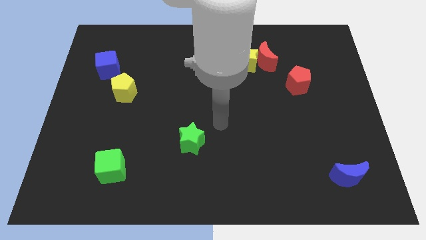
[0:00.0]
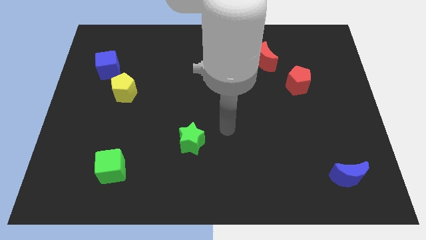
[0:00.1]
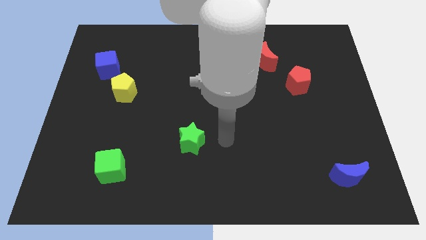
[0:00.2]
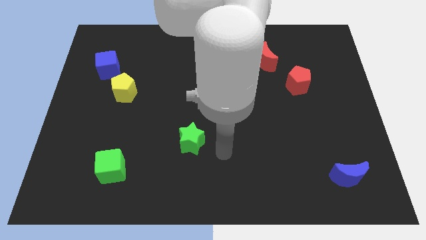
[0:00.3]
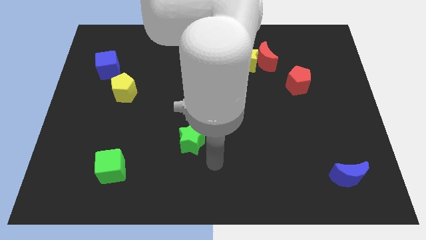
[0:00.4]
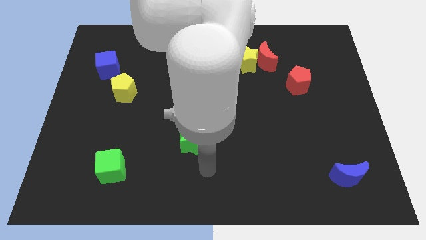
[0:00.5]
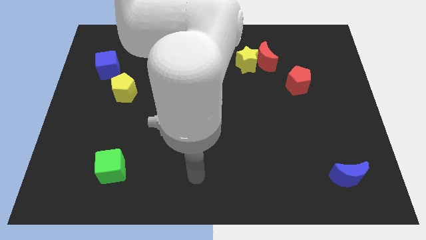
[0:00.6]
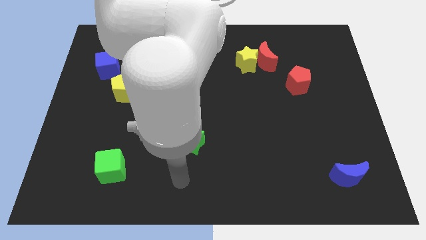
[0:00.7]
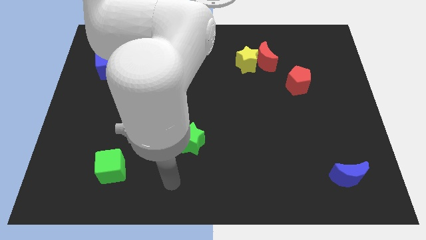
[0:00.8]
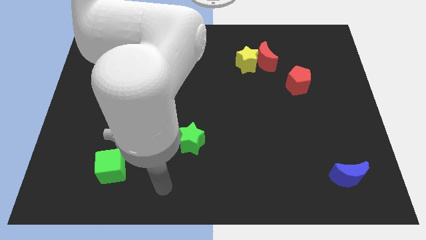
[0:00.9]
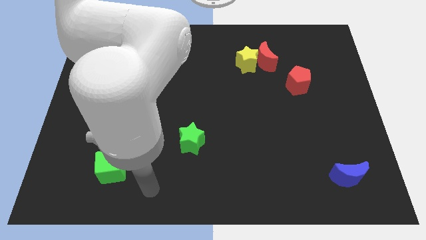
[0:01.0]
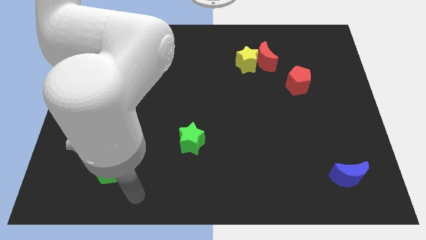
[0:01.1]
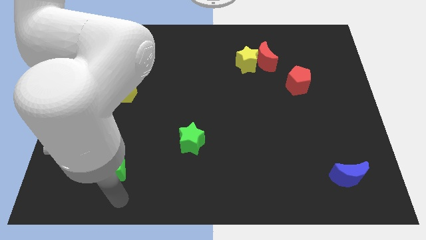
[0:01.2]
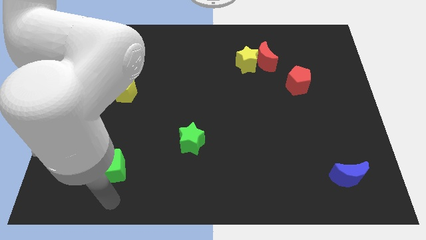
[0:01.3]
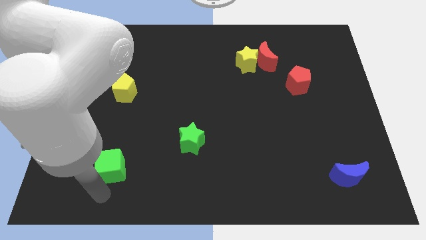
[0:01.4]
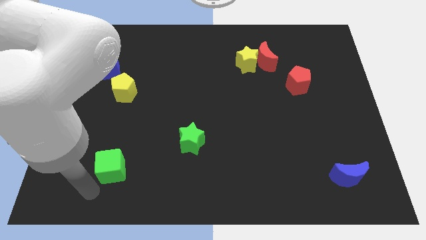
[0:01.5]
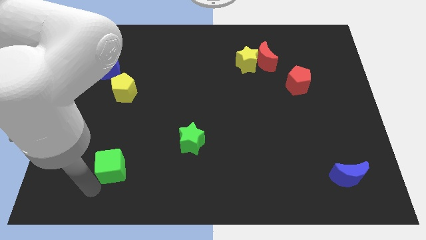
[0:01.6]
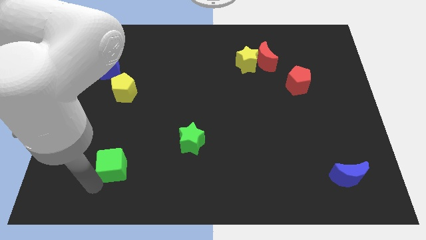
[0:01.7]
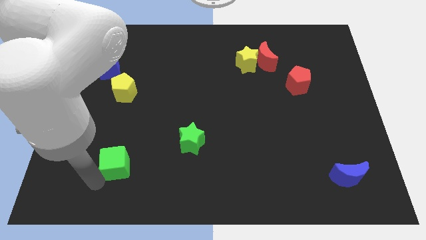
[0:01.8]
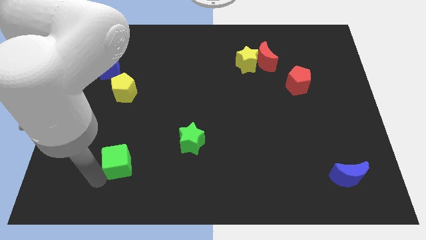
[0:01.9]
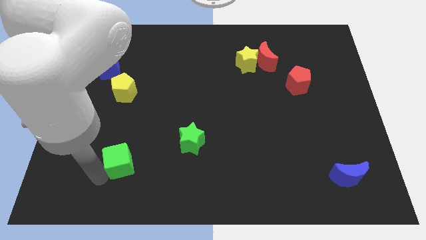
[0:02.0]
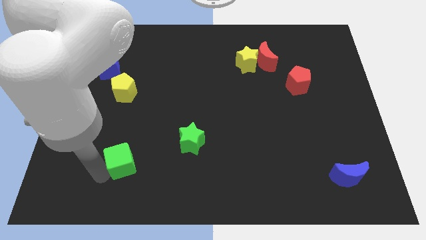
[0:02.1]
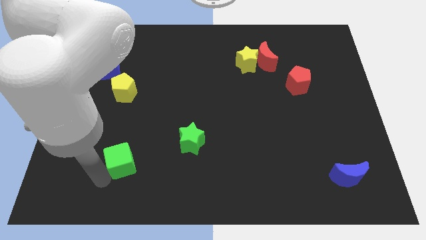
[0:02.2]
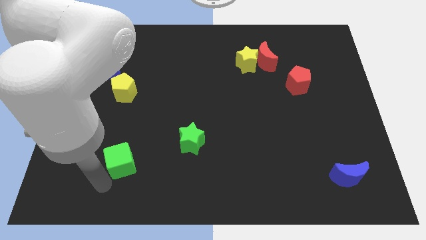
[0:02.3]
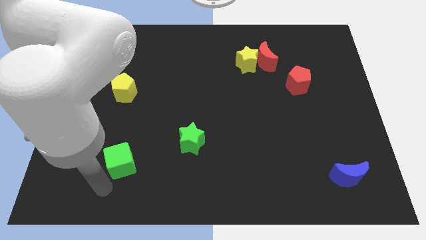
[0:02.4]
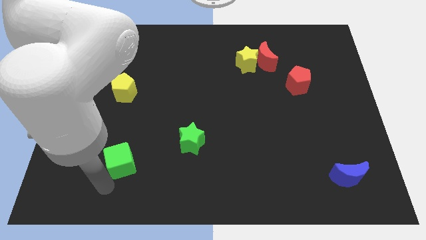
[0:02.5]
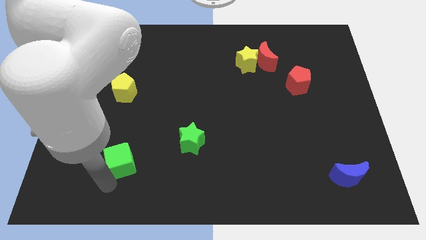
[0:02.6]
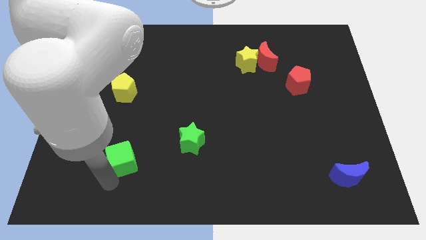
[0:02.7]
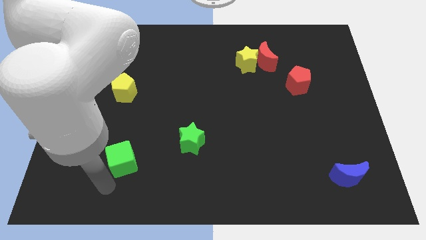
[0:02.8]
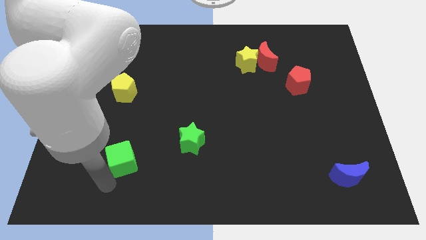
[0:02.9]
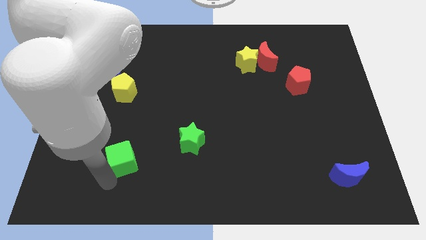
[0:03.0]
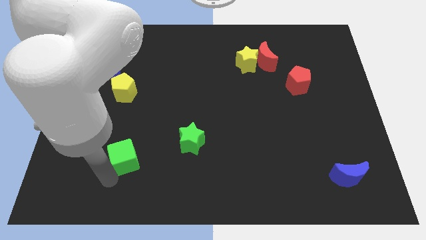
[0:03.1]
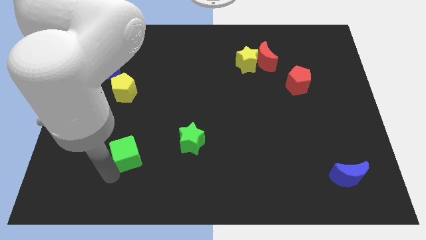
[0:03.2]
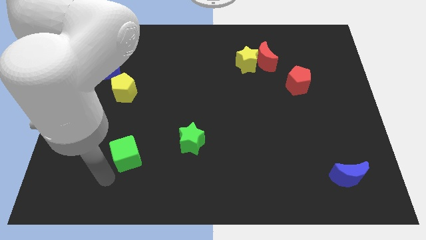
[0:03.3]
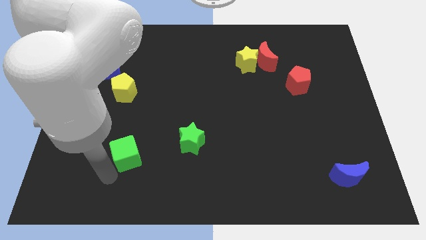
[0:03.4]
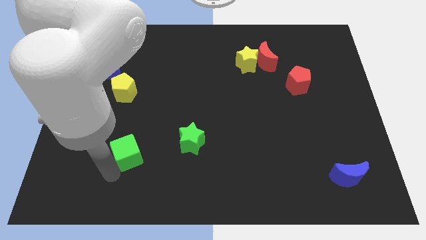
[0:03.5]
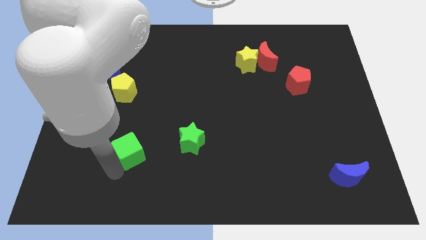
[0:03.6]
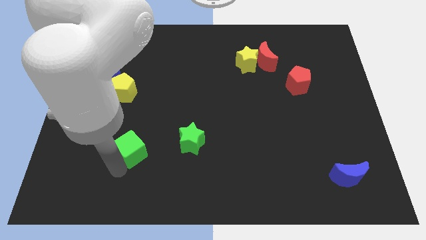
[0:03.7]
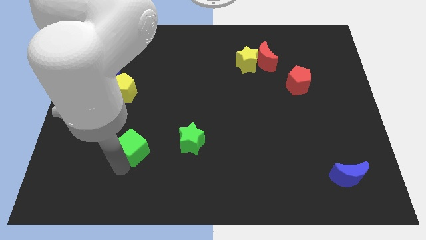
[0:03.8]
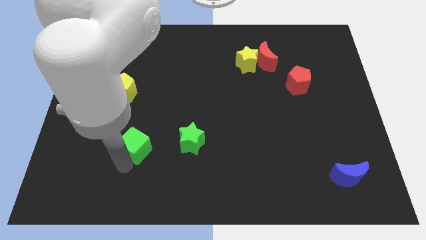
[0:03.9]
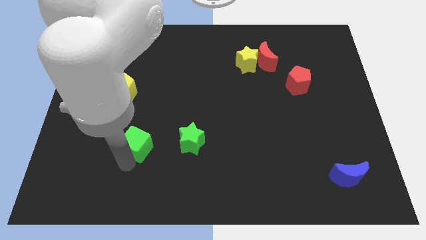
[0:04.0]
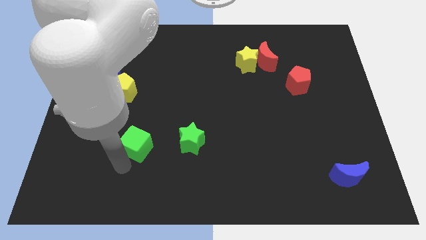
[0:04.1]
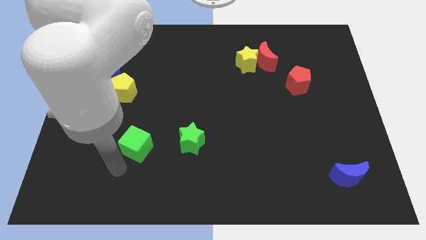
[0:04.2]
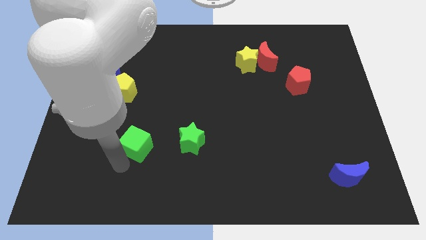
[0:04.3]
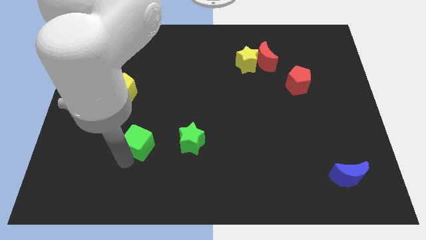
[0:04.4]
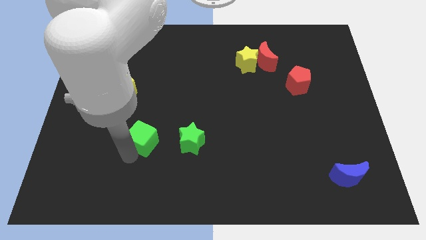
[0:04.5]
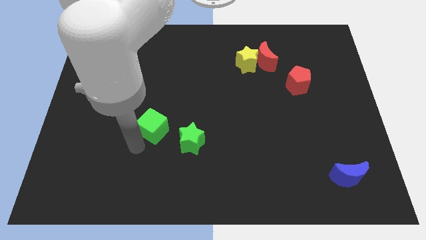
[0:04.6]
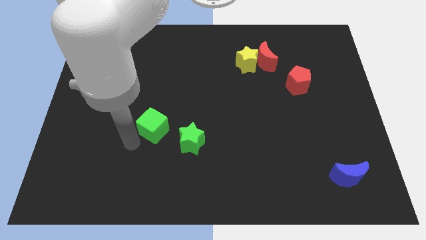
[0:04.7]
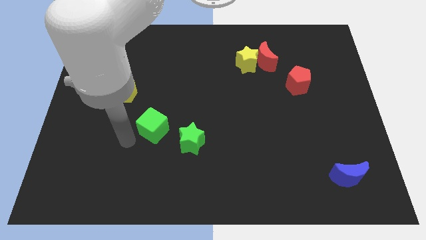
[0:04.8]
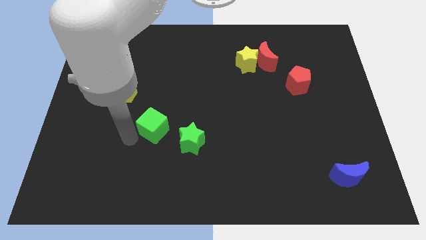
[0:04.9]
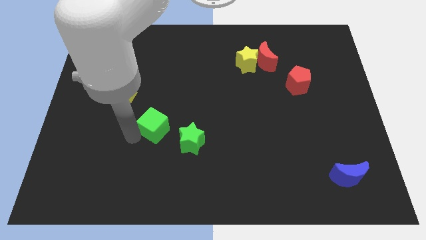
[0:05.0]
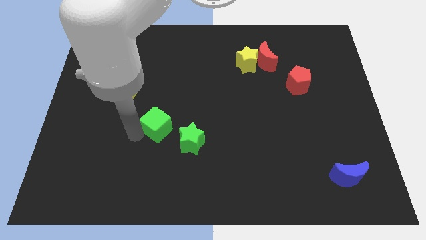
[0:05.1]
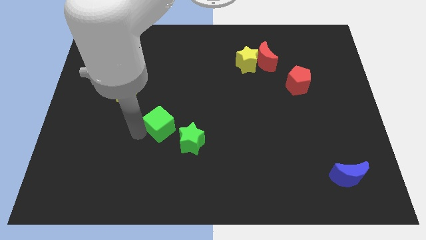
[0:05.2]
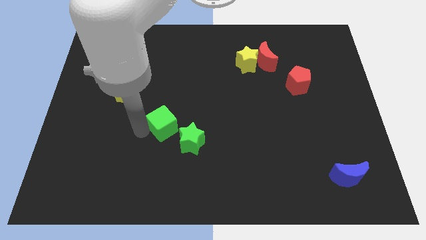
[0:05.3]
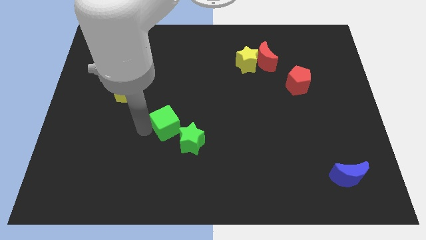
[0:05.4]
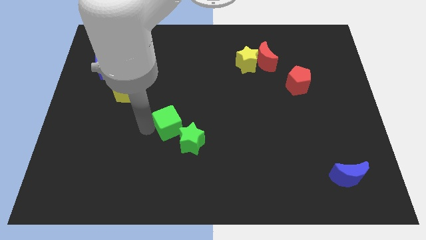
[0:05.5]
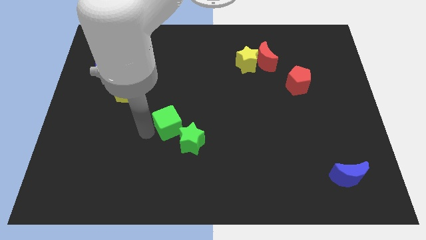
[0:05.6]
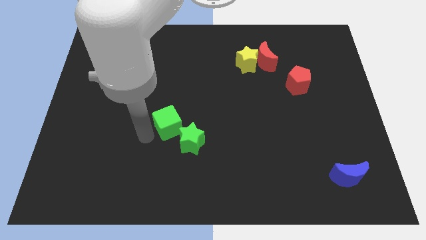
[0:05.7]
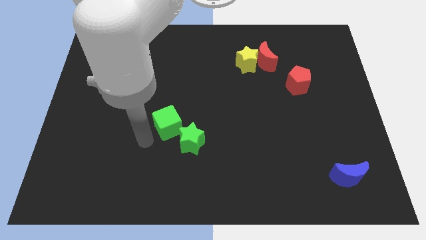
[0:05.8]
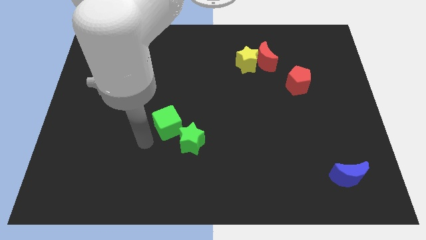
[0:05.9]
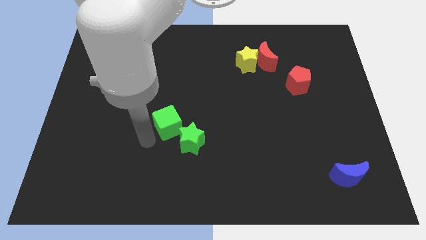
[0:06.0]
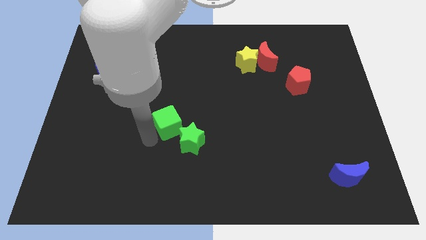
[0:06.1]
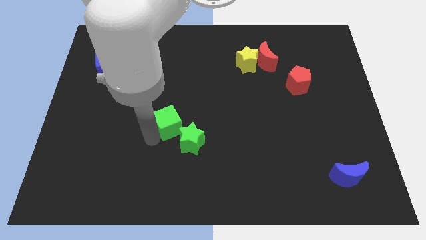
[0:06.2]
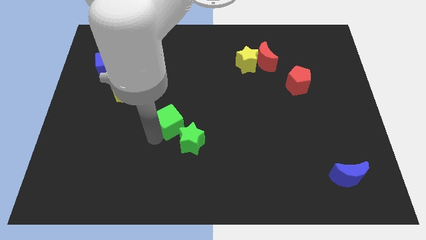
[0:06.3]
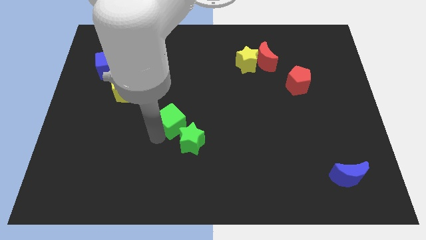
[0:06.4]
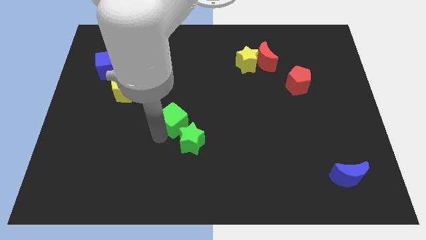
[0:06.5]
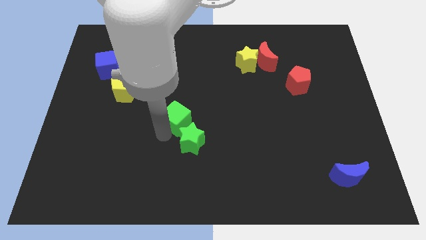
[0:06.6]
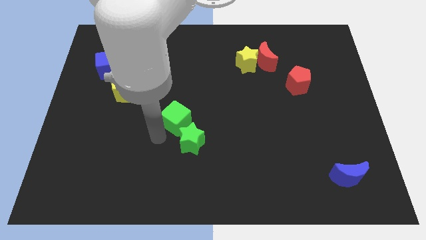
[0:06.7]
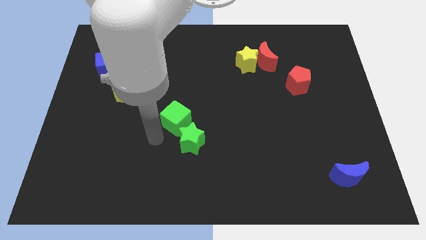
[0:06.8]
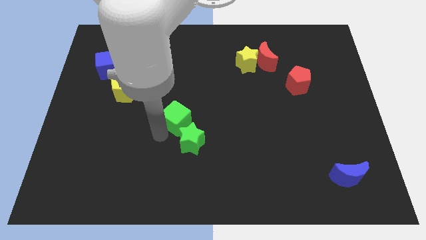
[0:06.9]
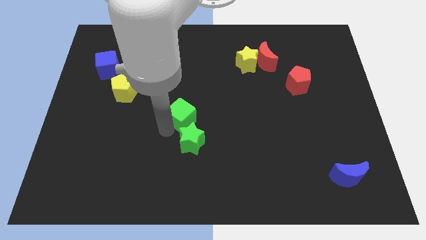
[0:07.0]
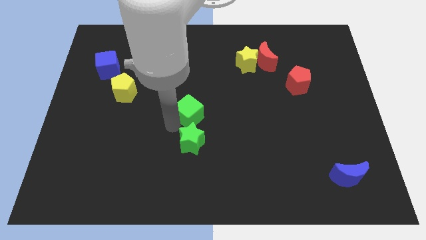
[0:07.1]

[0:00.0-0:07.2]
push the green cube diagonally up and to the right

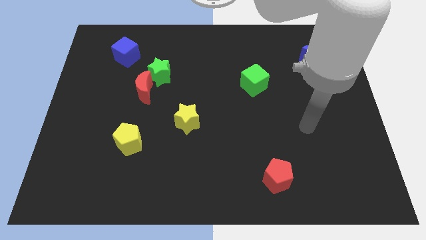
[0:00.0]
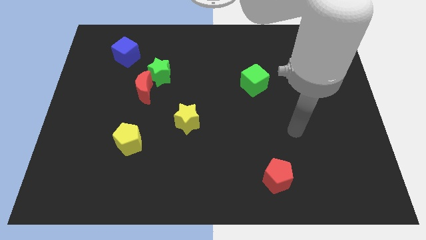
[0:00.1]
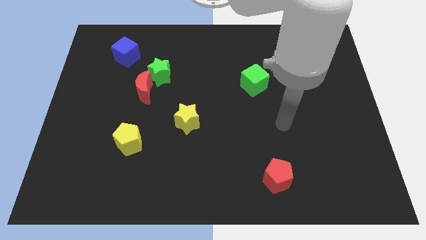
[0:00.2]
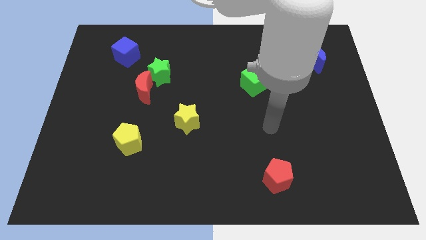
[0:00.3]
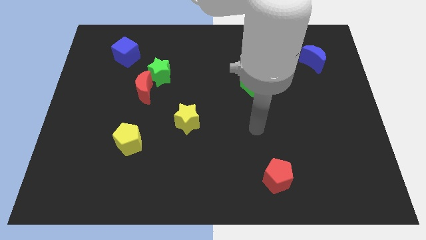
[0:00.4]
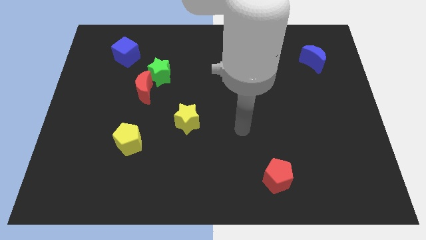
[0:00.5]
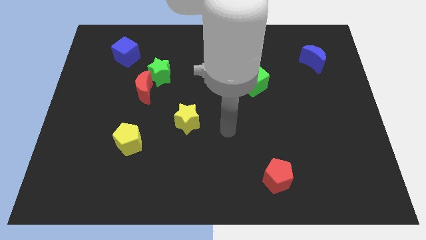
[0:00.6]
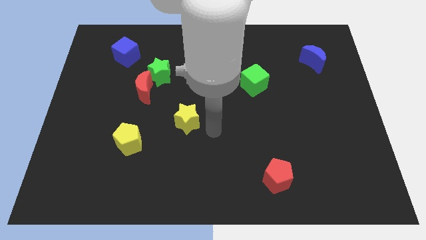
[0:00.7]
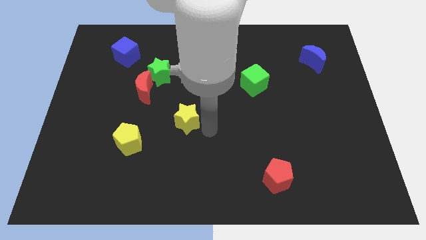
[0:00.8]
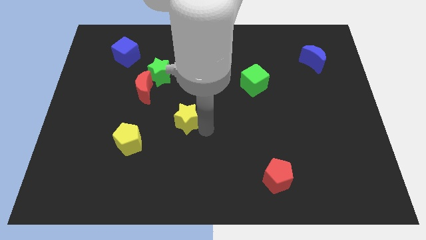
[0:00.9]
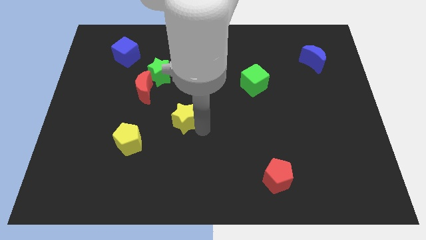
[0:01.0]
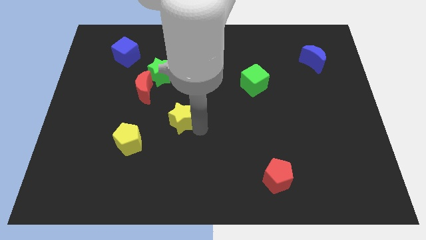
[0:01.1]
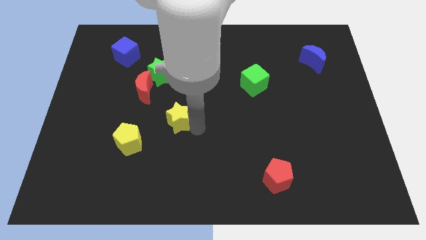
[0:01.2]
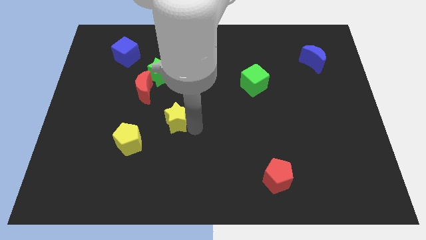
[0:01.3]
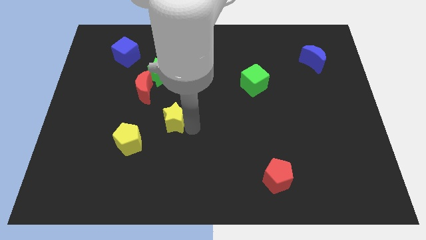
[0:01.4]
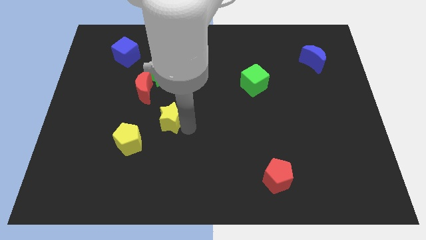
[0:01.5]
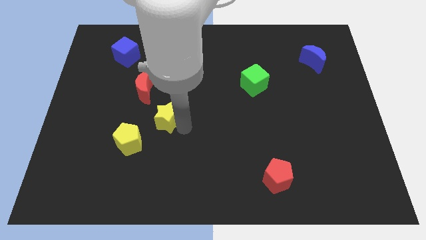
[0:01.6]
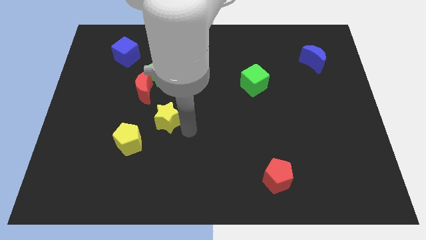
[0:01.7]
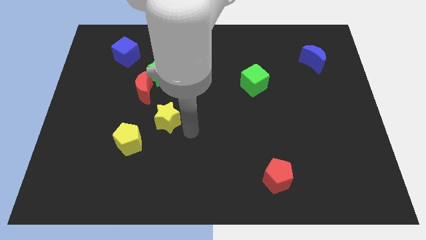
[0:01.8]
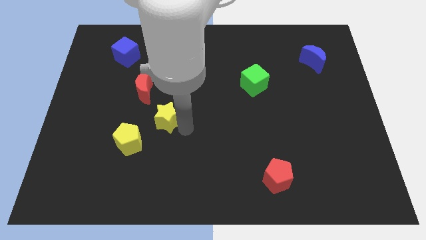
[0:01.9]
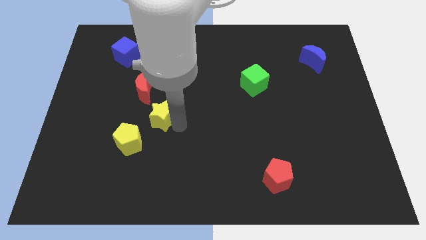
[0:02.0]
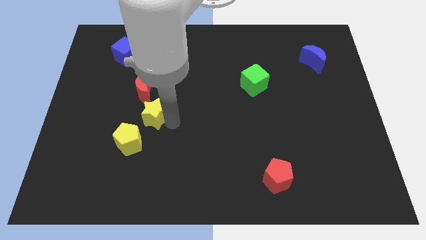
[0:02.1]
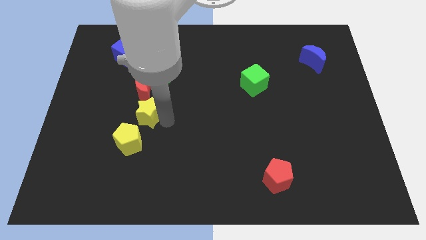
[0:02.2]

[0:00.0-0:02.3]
slide the yellow star somewhat up and left diagonally
